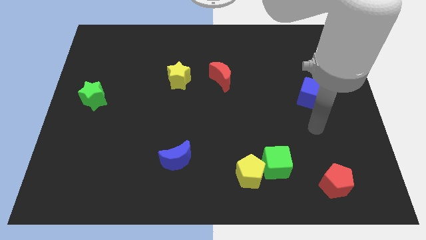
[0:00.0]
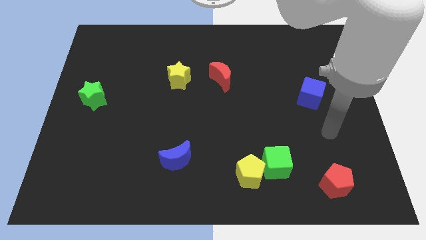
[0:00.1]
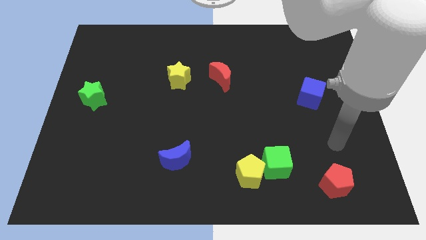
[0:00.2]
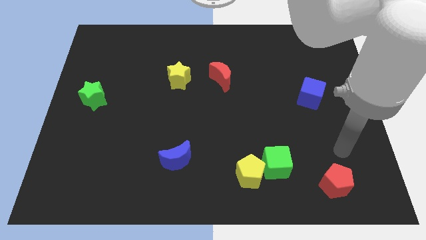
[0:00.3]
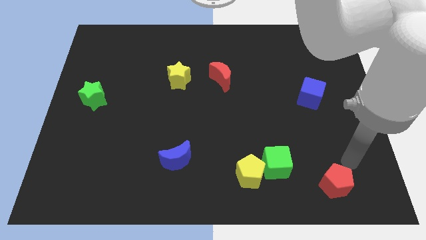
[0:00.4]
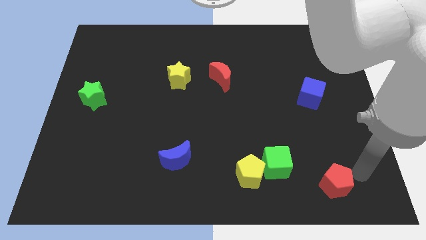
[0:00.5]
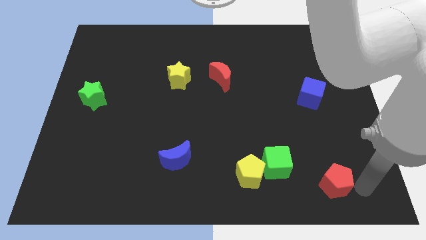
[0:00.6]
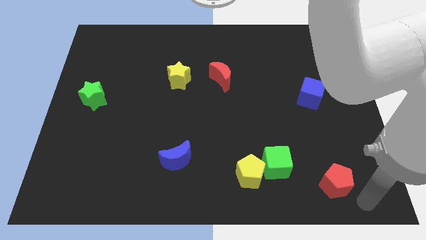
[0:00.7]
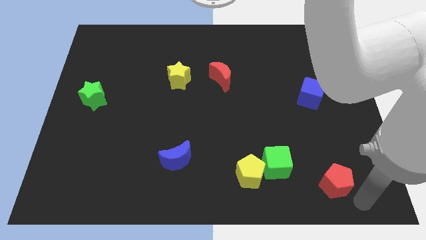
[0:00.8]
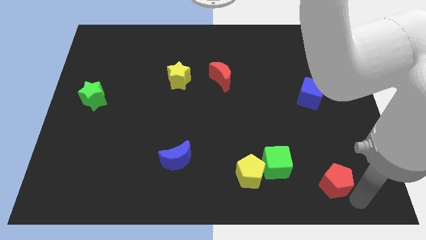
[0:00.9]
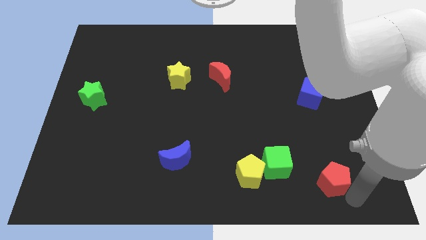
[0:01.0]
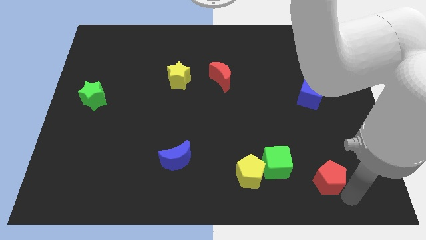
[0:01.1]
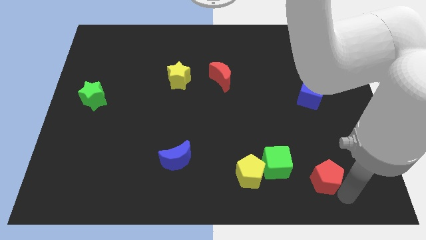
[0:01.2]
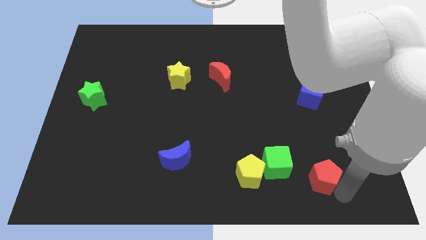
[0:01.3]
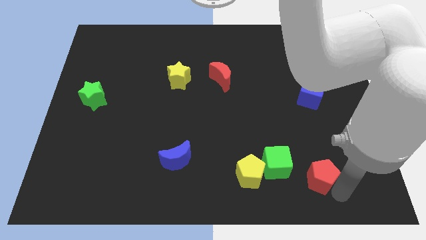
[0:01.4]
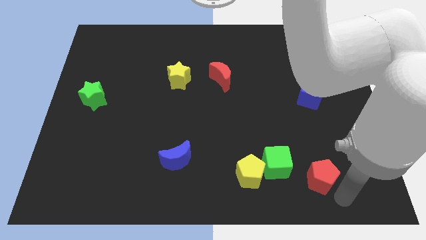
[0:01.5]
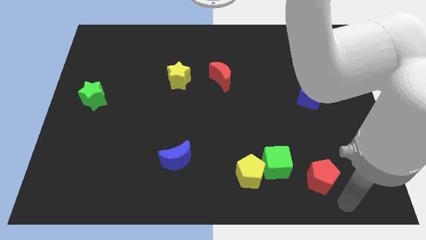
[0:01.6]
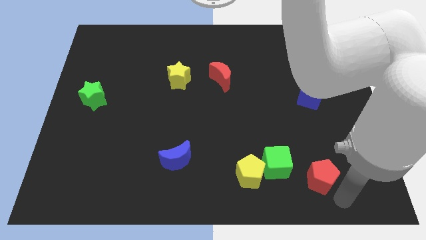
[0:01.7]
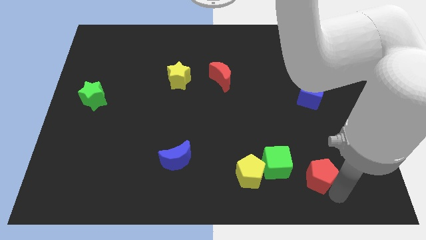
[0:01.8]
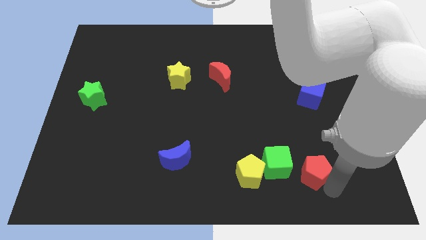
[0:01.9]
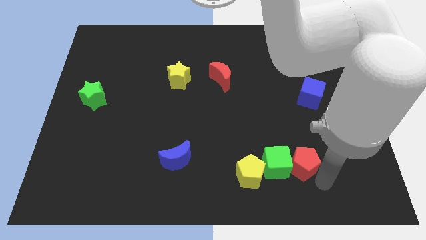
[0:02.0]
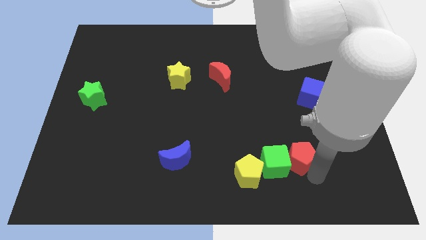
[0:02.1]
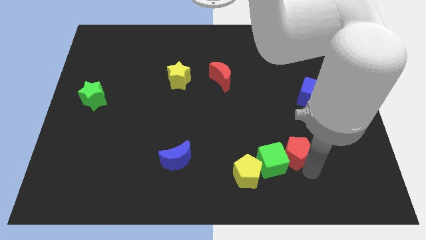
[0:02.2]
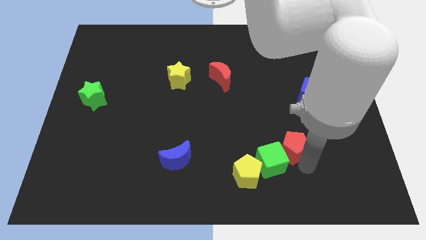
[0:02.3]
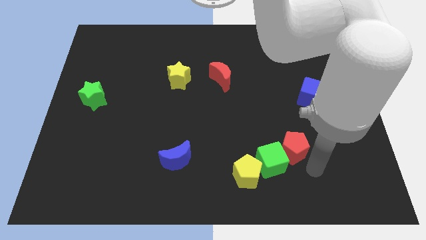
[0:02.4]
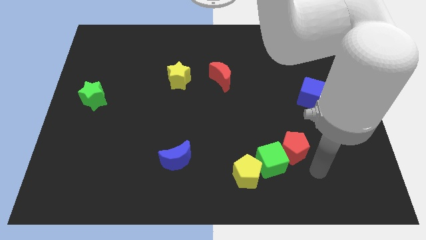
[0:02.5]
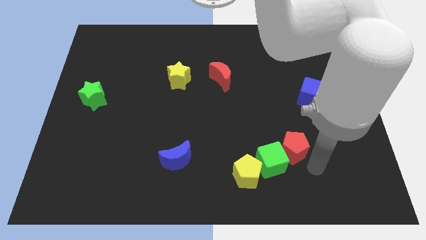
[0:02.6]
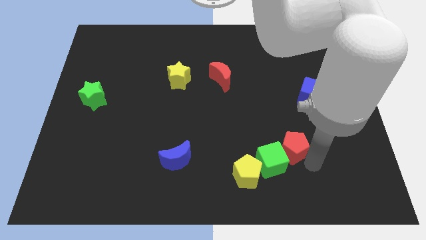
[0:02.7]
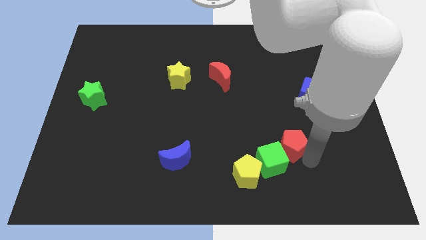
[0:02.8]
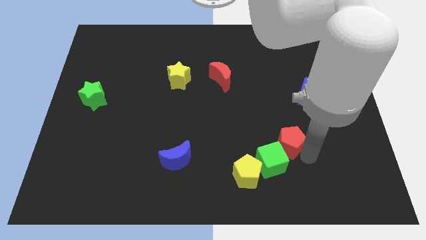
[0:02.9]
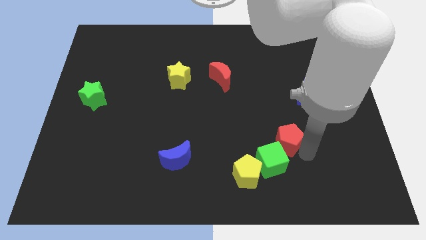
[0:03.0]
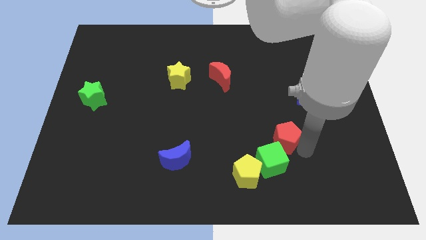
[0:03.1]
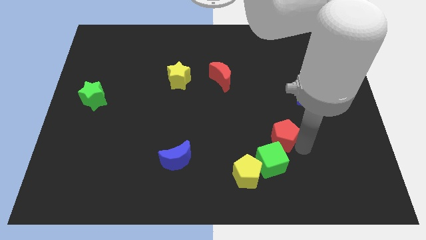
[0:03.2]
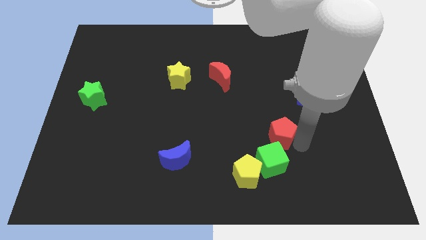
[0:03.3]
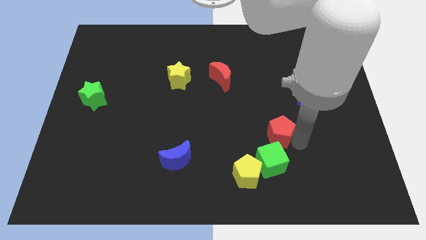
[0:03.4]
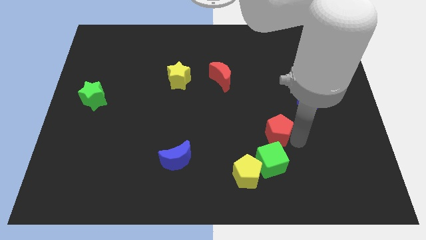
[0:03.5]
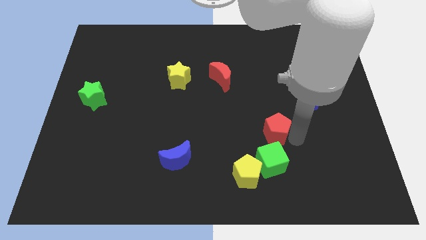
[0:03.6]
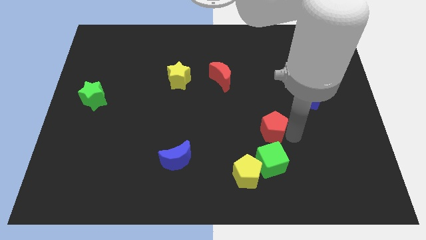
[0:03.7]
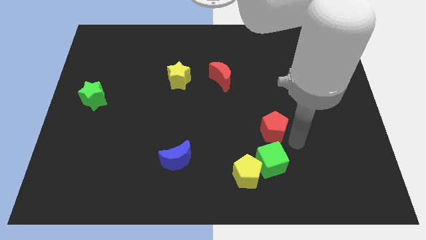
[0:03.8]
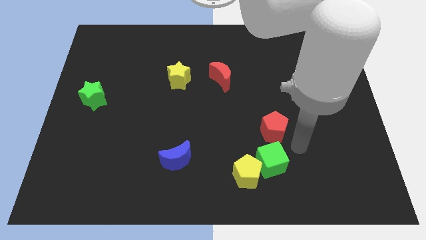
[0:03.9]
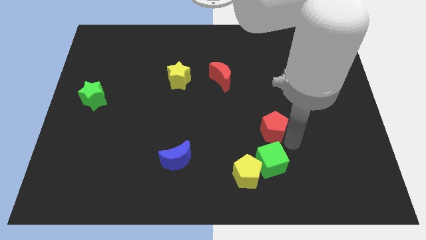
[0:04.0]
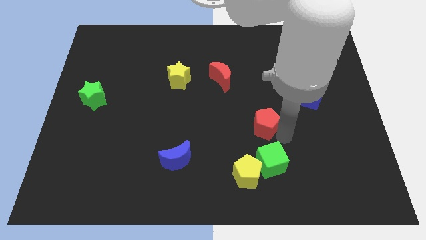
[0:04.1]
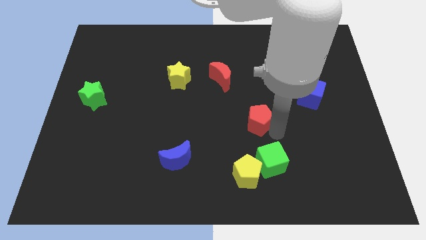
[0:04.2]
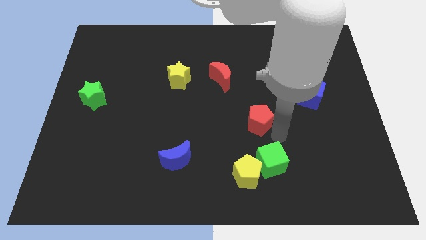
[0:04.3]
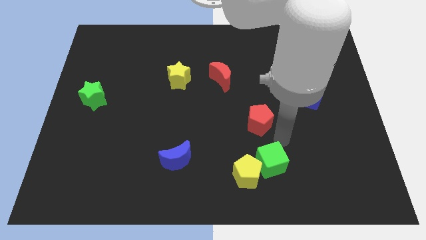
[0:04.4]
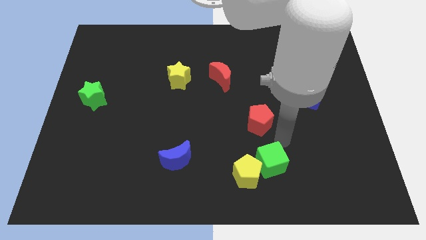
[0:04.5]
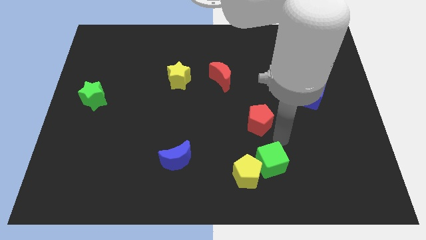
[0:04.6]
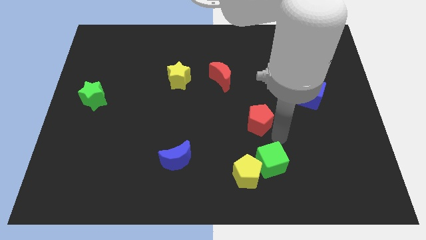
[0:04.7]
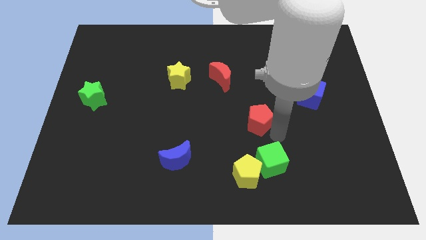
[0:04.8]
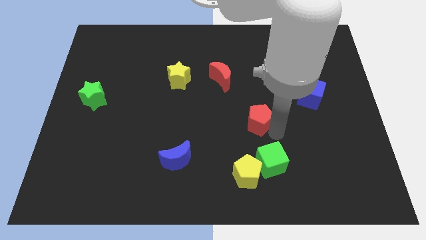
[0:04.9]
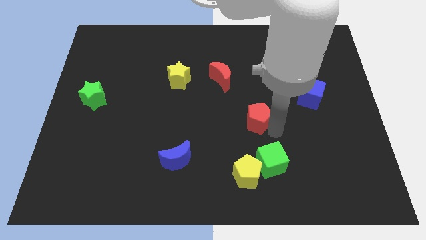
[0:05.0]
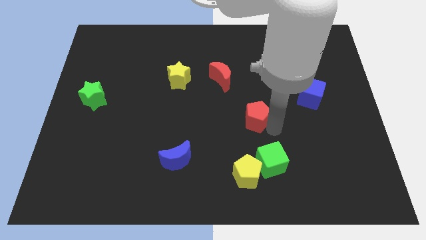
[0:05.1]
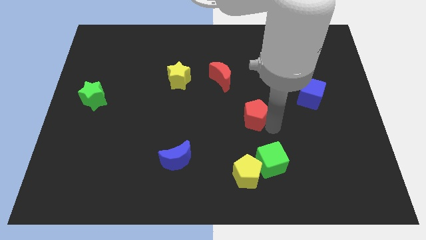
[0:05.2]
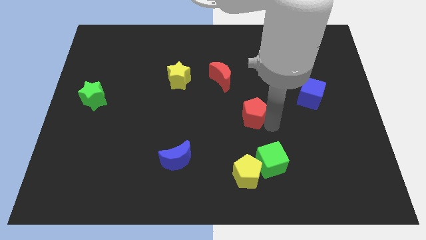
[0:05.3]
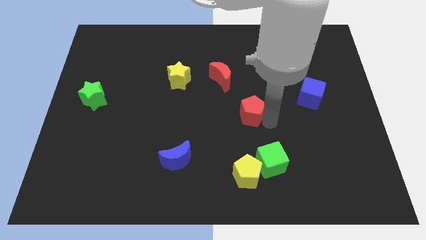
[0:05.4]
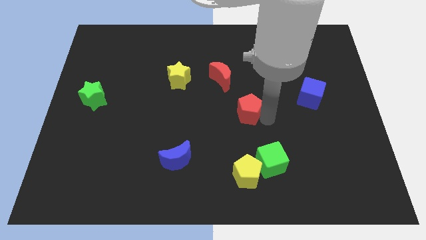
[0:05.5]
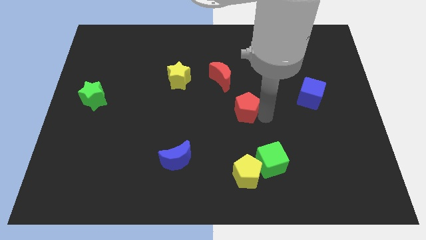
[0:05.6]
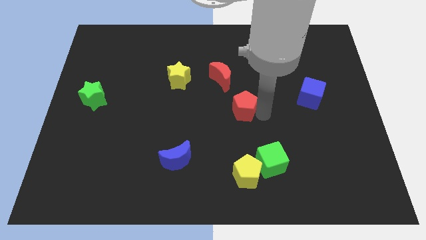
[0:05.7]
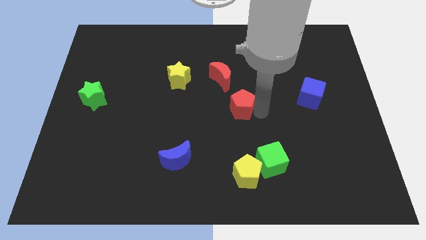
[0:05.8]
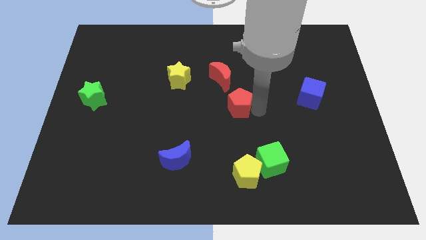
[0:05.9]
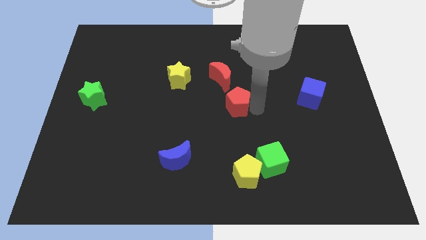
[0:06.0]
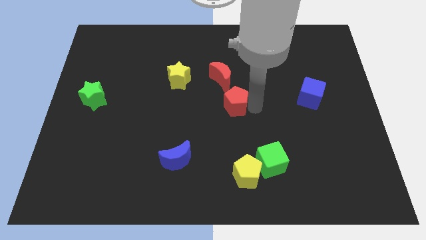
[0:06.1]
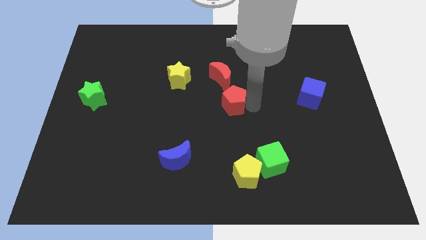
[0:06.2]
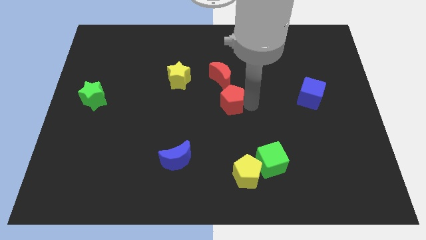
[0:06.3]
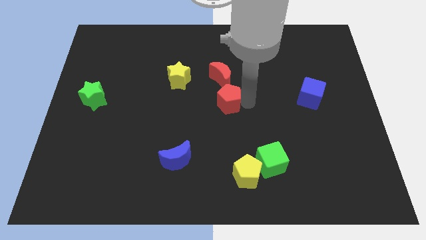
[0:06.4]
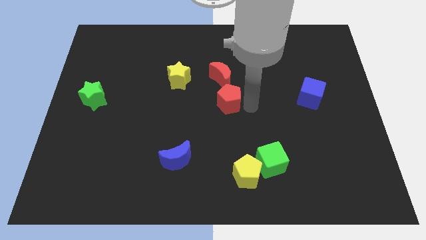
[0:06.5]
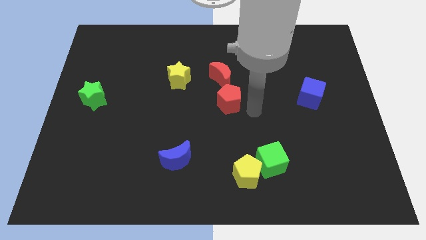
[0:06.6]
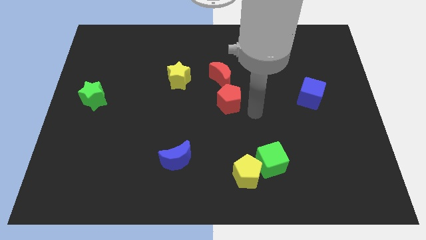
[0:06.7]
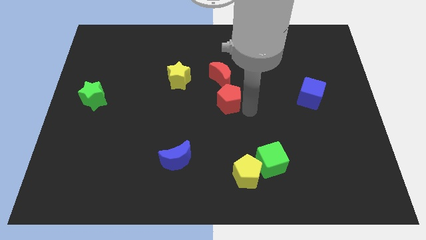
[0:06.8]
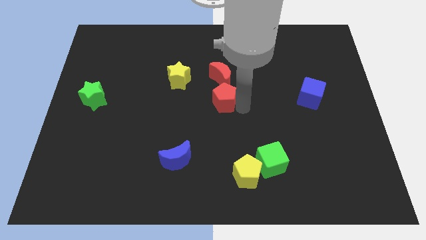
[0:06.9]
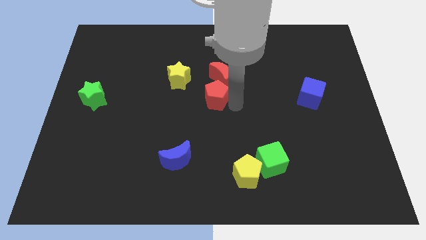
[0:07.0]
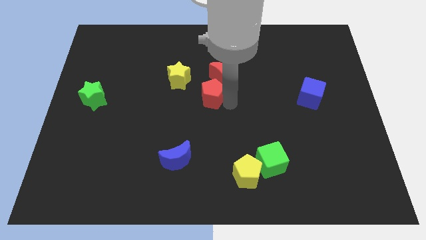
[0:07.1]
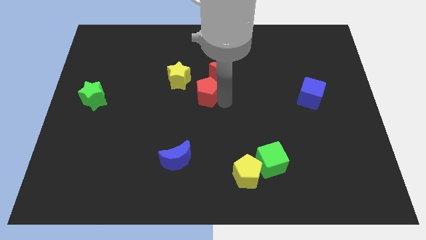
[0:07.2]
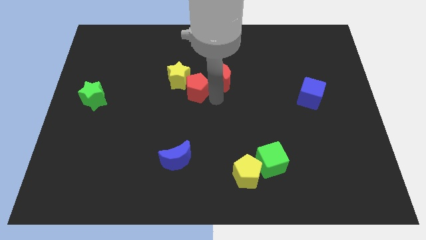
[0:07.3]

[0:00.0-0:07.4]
put the red pentagon next to the yellow star
